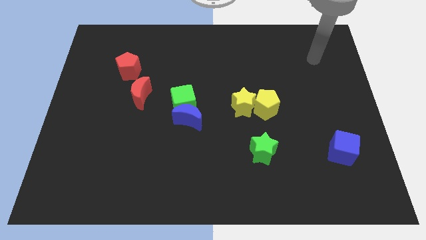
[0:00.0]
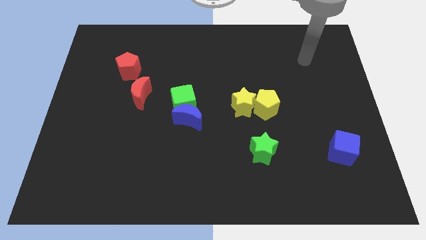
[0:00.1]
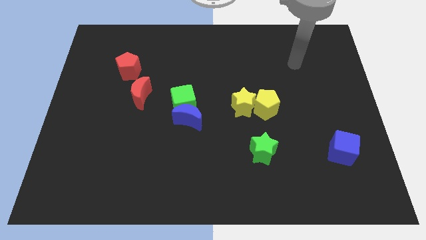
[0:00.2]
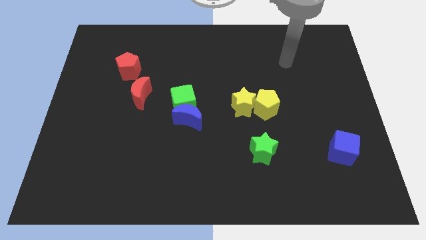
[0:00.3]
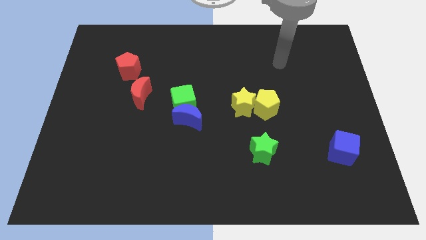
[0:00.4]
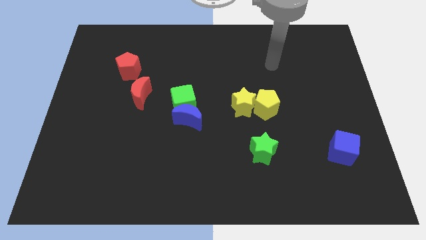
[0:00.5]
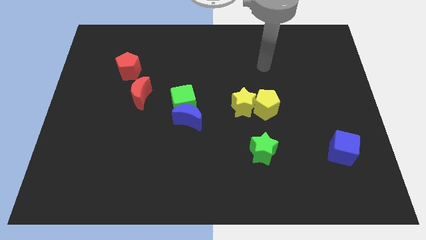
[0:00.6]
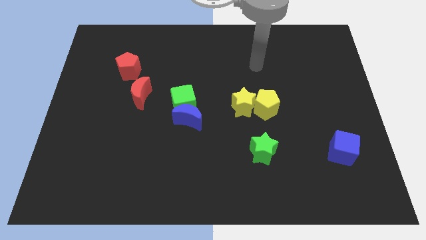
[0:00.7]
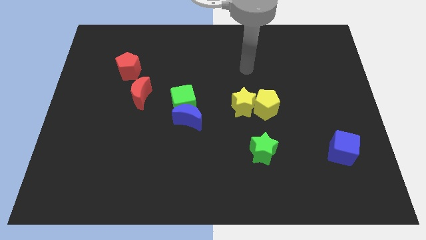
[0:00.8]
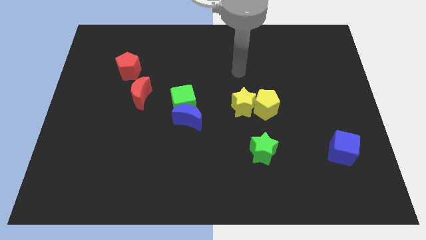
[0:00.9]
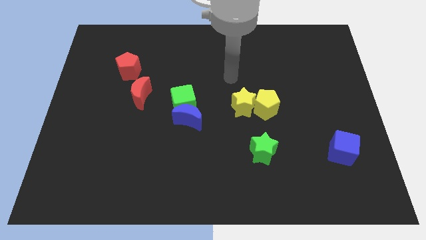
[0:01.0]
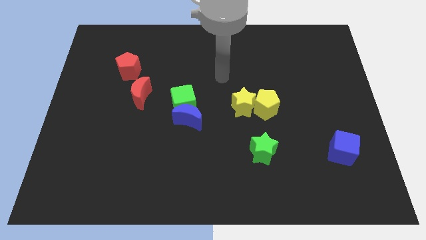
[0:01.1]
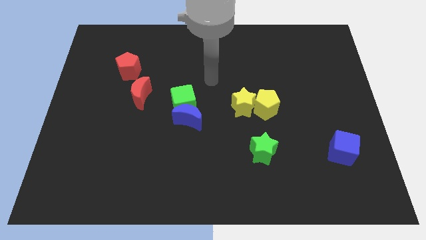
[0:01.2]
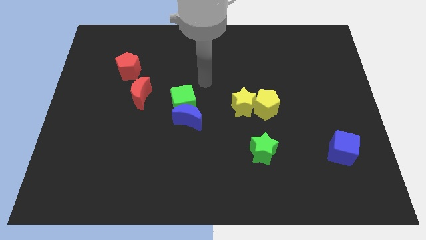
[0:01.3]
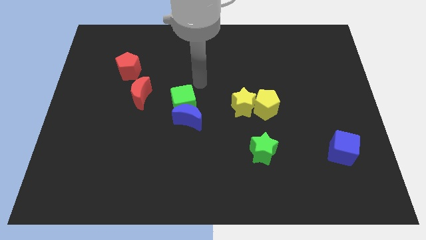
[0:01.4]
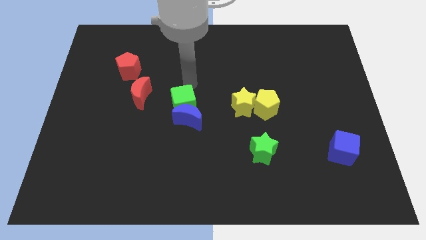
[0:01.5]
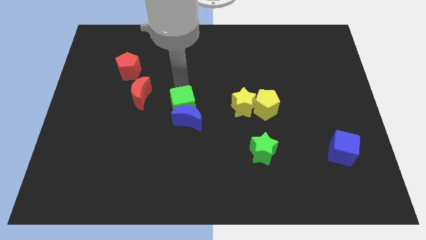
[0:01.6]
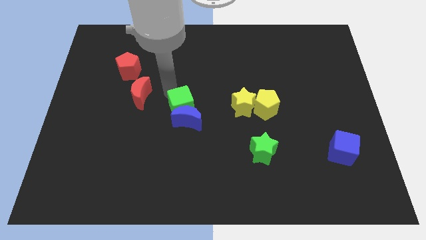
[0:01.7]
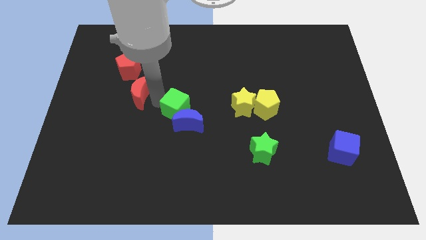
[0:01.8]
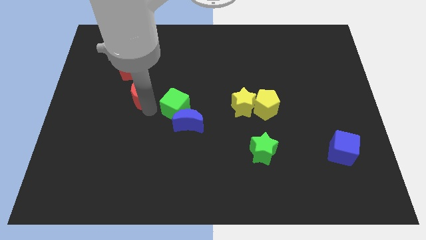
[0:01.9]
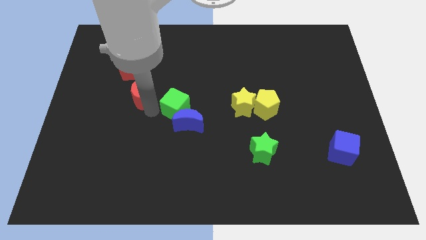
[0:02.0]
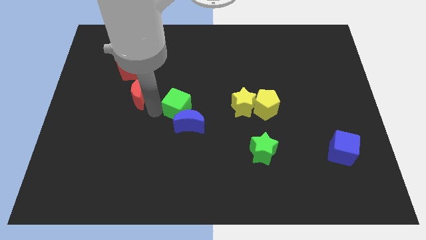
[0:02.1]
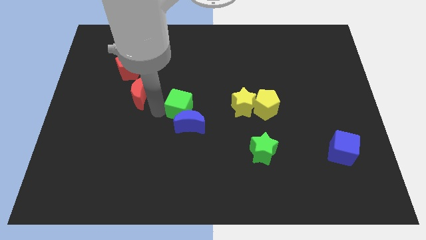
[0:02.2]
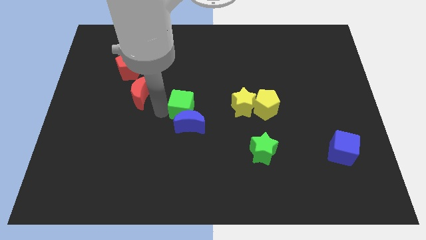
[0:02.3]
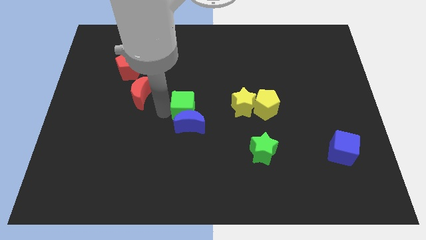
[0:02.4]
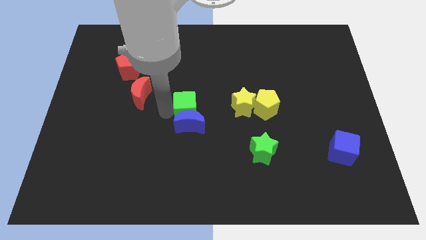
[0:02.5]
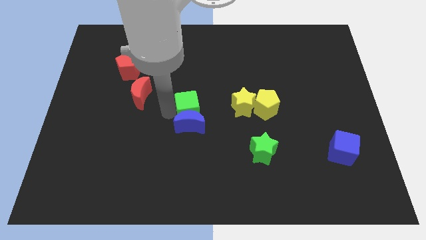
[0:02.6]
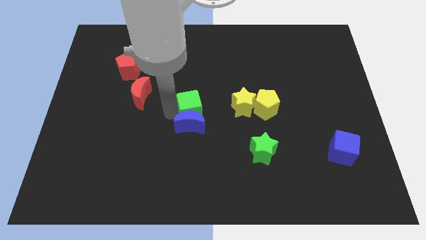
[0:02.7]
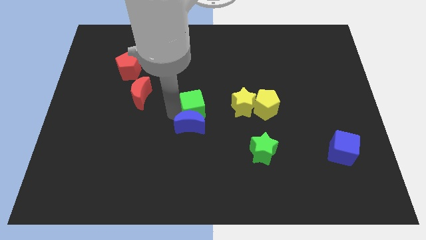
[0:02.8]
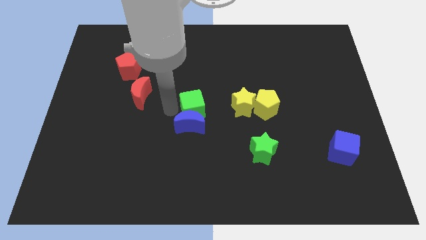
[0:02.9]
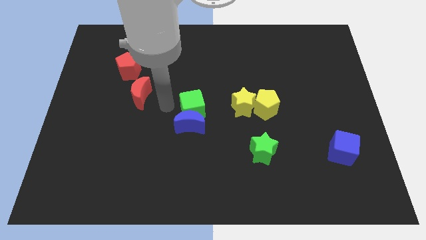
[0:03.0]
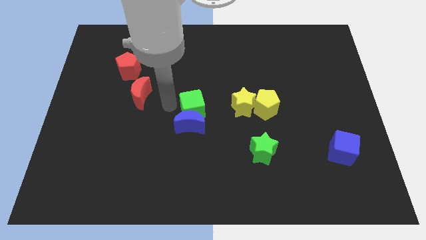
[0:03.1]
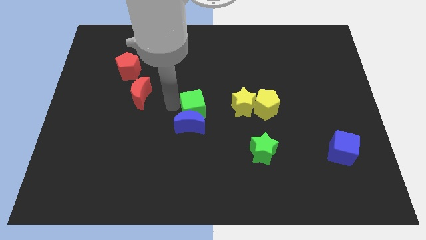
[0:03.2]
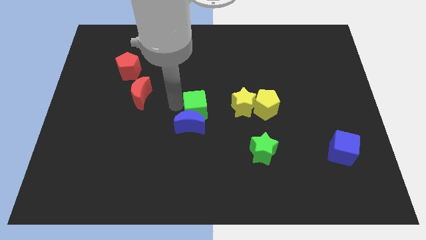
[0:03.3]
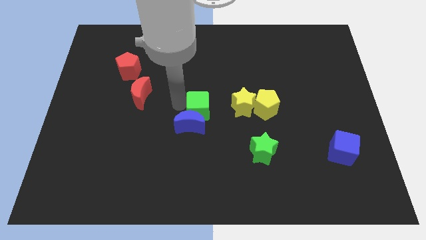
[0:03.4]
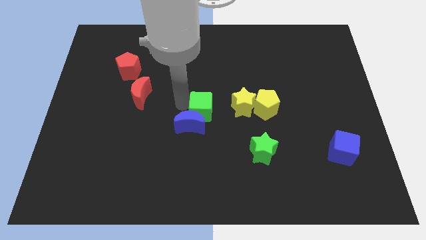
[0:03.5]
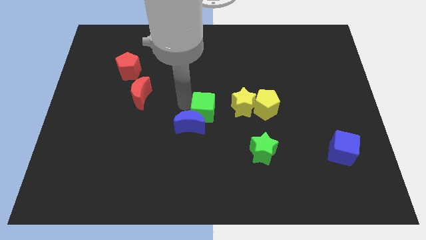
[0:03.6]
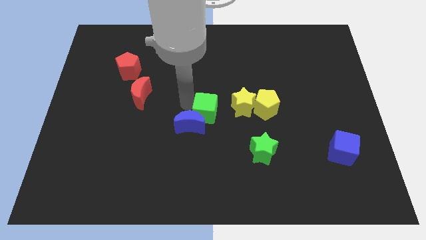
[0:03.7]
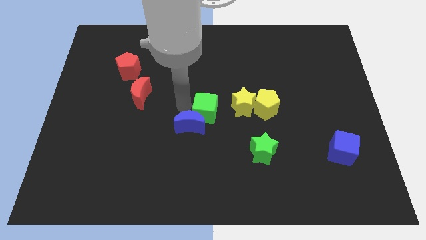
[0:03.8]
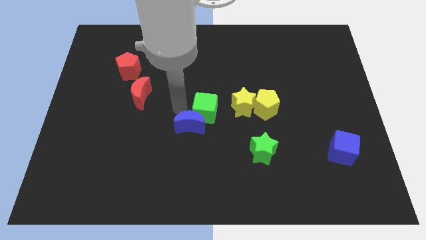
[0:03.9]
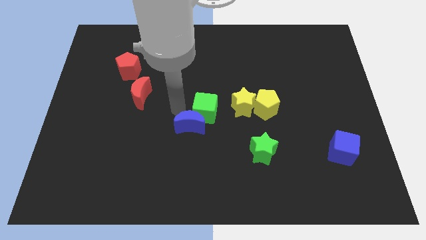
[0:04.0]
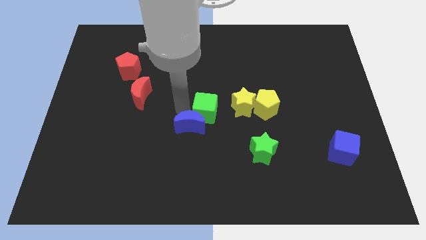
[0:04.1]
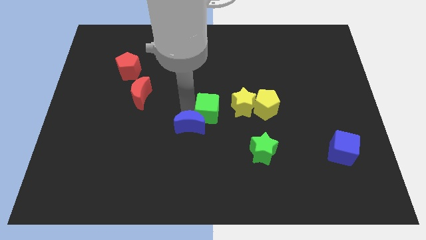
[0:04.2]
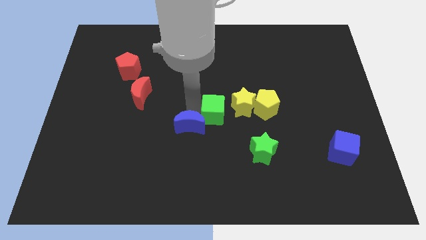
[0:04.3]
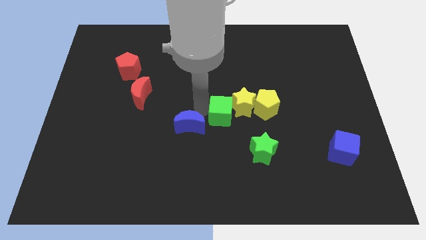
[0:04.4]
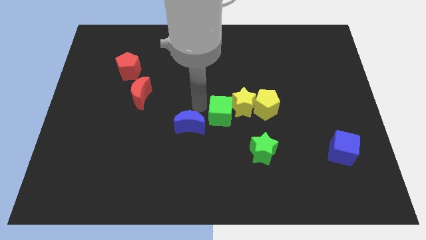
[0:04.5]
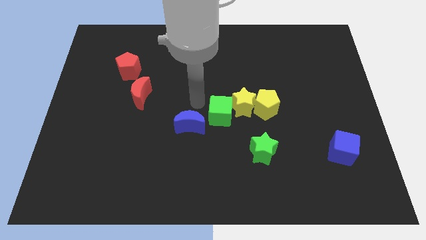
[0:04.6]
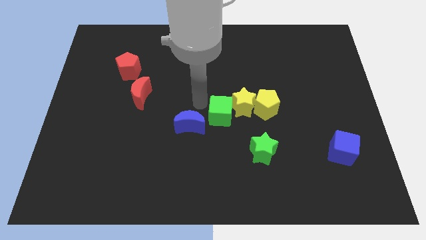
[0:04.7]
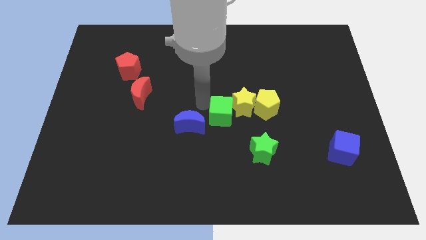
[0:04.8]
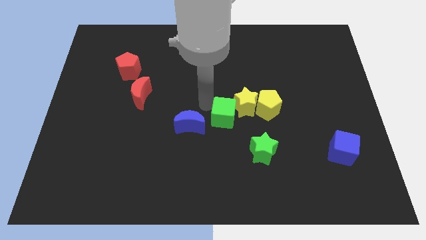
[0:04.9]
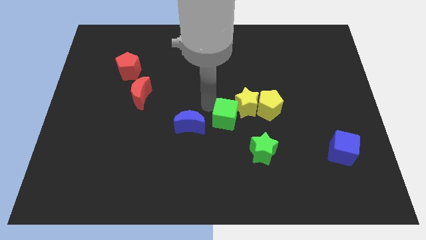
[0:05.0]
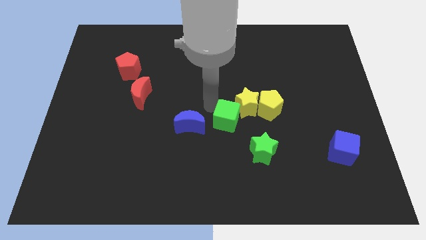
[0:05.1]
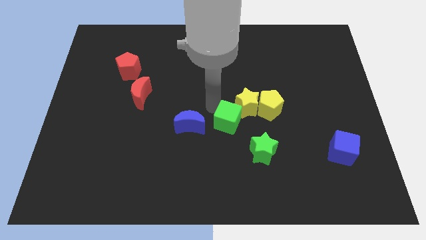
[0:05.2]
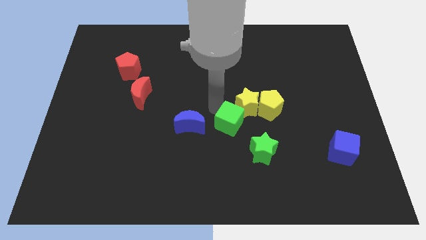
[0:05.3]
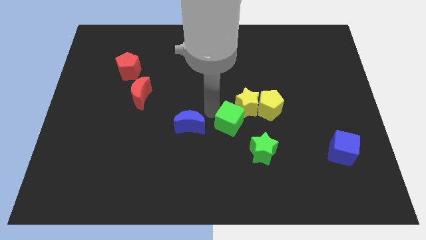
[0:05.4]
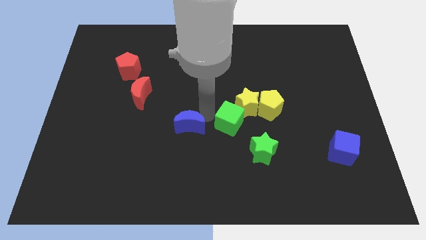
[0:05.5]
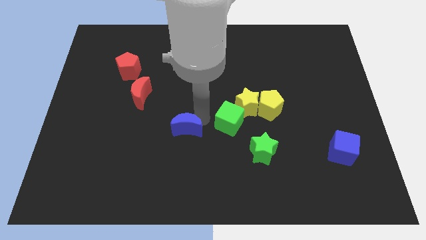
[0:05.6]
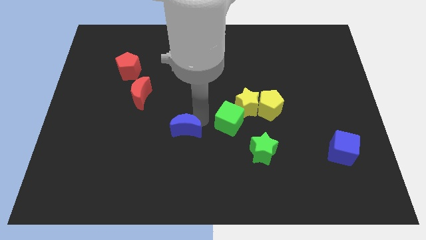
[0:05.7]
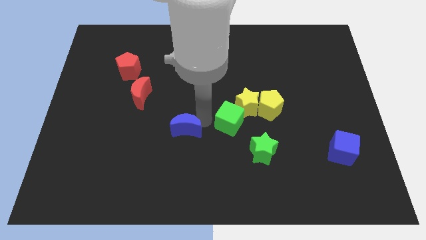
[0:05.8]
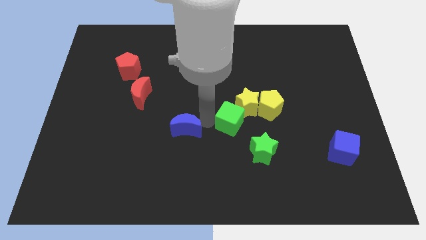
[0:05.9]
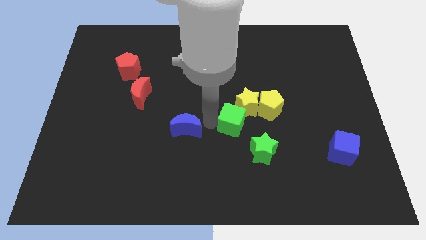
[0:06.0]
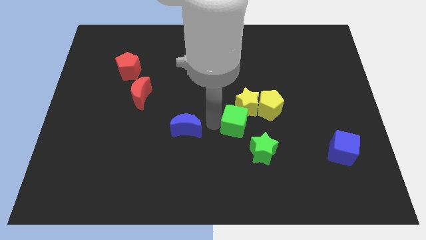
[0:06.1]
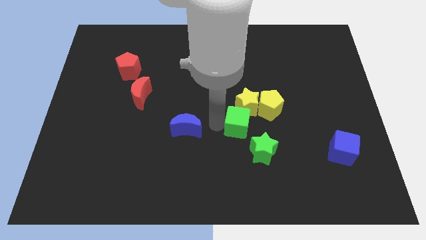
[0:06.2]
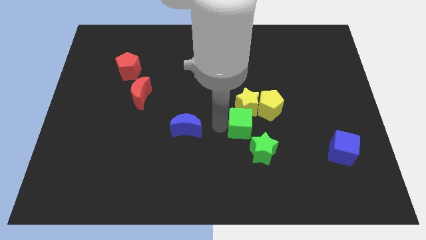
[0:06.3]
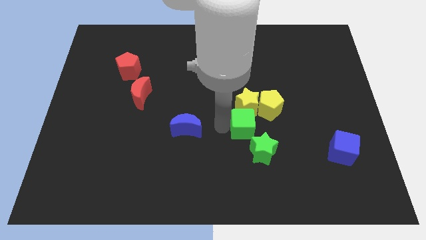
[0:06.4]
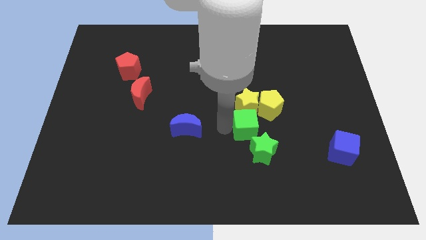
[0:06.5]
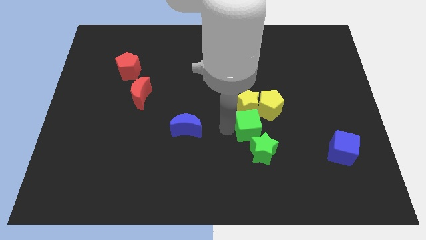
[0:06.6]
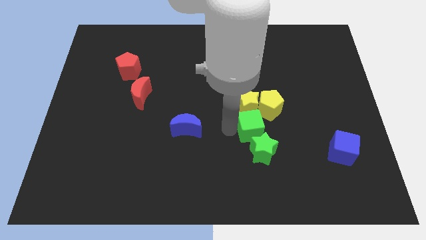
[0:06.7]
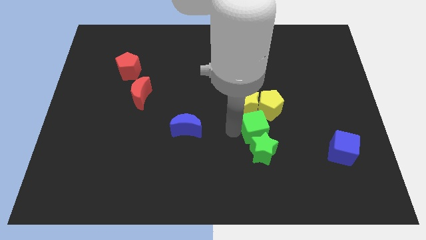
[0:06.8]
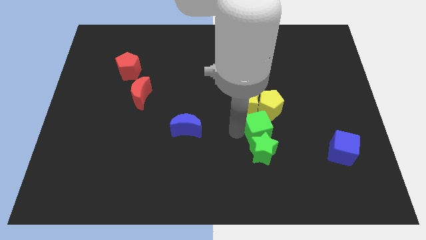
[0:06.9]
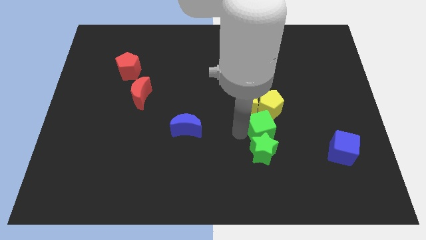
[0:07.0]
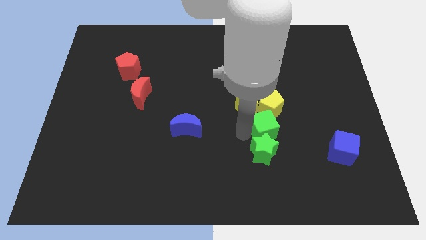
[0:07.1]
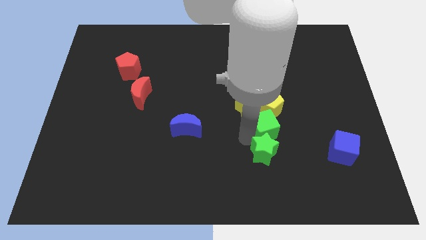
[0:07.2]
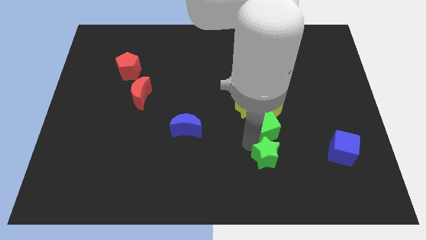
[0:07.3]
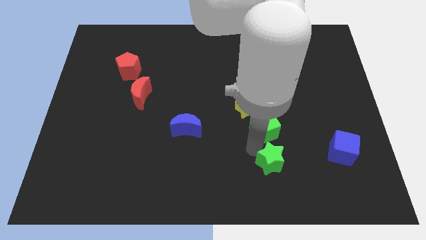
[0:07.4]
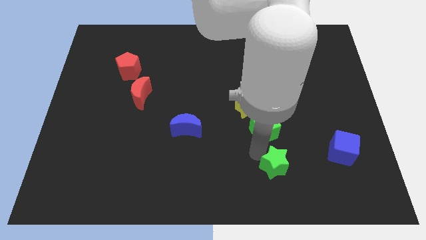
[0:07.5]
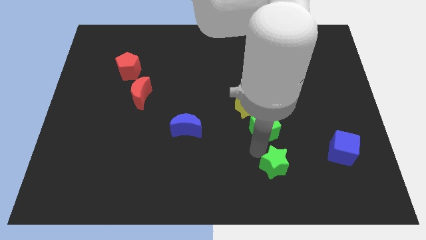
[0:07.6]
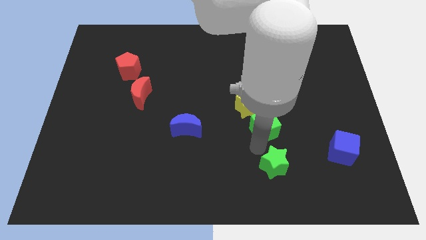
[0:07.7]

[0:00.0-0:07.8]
push the green cube towards the yellow pentagon

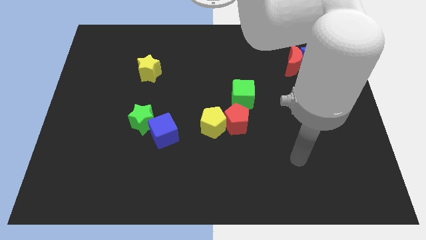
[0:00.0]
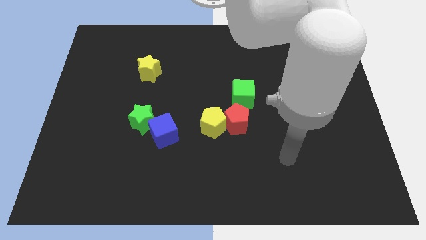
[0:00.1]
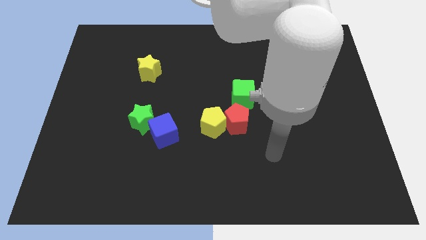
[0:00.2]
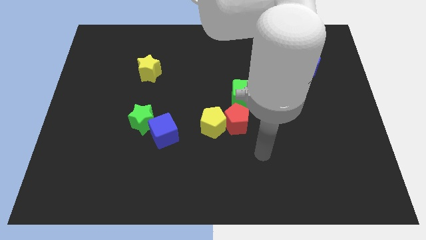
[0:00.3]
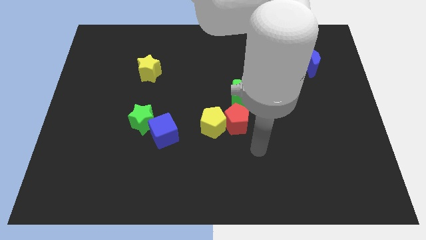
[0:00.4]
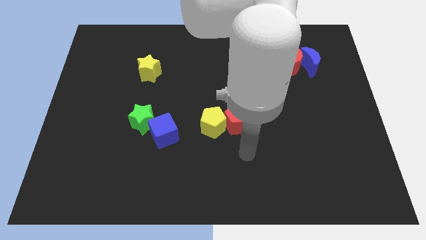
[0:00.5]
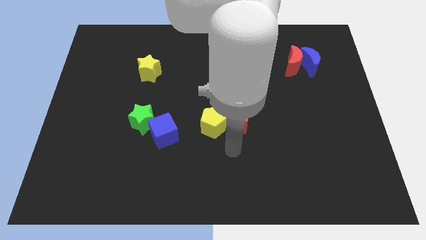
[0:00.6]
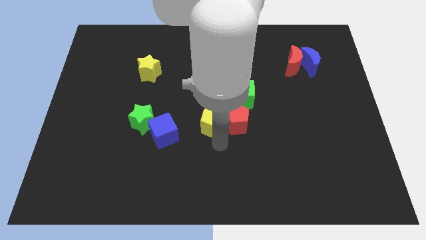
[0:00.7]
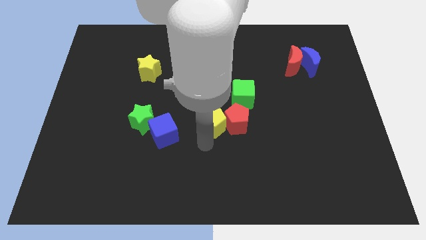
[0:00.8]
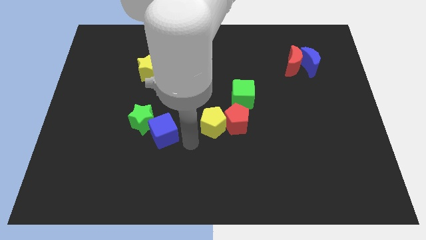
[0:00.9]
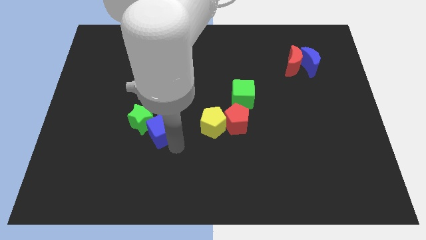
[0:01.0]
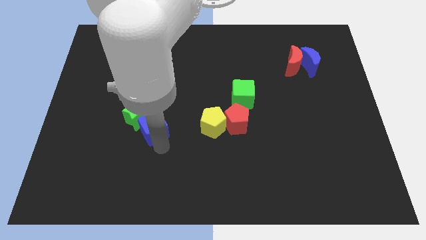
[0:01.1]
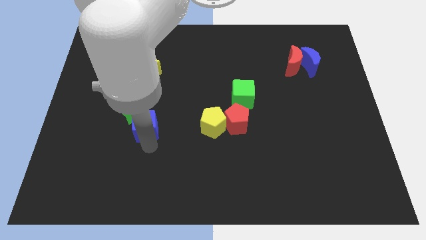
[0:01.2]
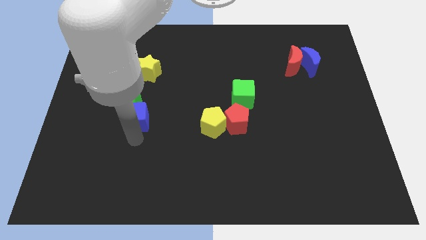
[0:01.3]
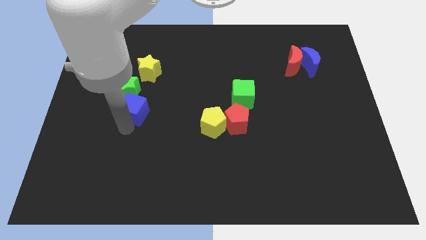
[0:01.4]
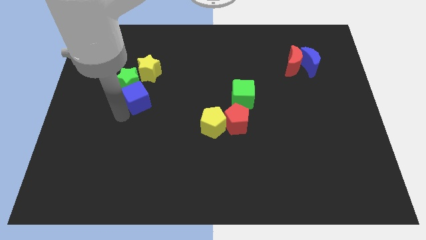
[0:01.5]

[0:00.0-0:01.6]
move the green star next to the yellow star
